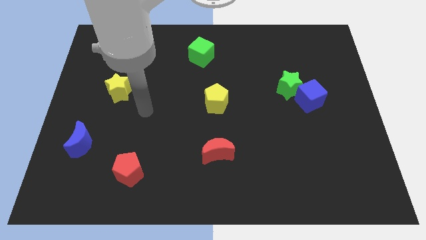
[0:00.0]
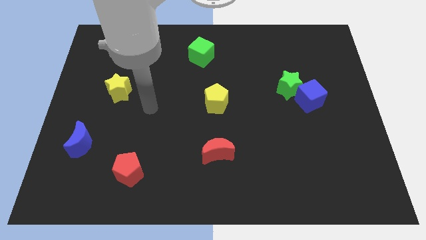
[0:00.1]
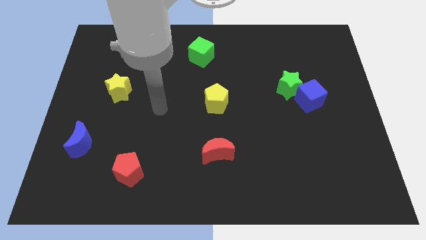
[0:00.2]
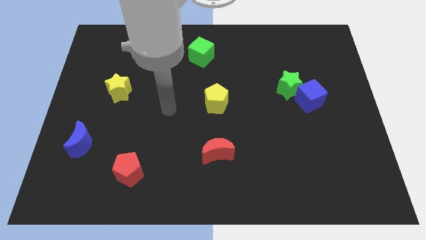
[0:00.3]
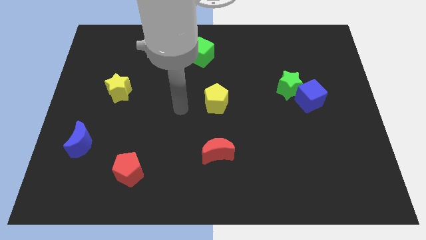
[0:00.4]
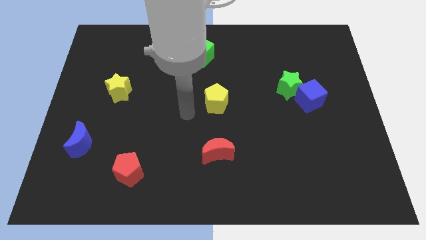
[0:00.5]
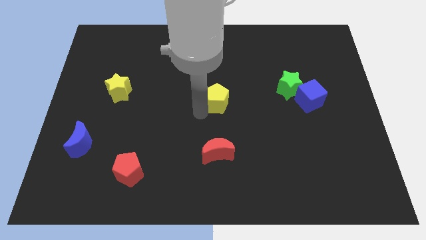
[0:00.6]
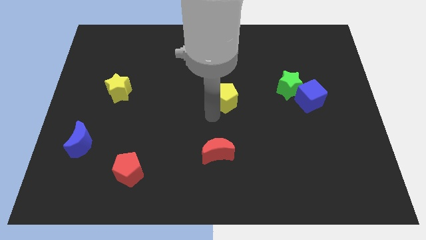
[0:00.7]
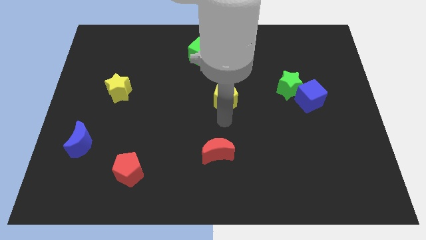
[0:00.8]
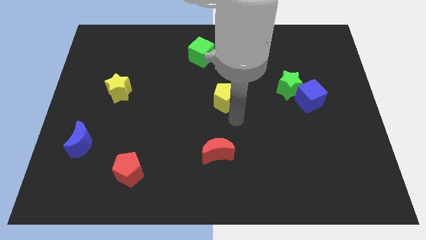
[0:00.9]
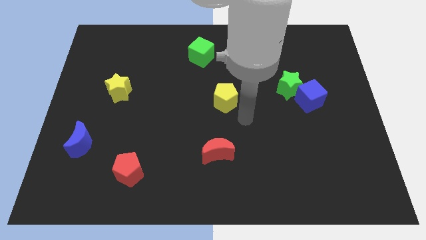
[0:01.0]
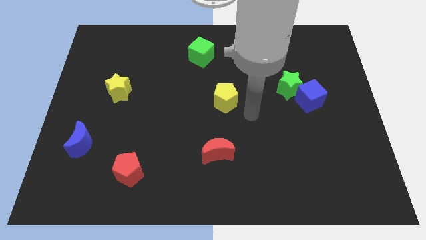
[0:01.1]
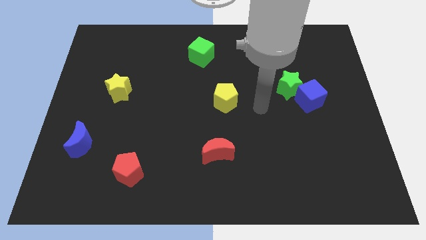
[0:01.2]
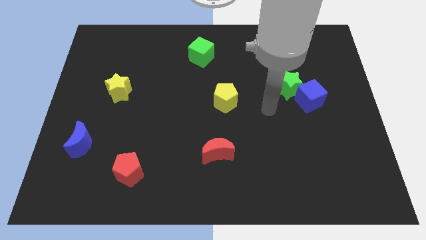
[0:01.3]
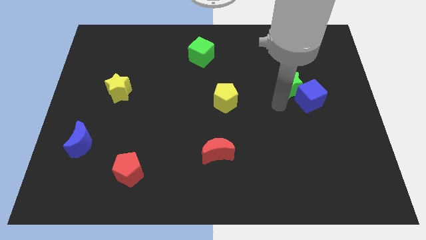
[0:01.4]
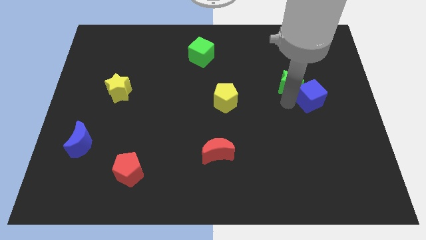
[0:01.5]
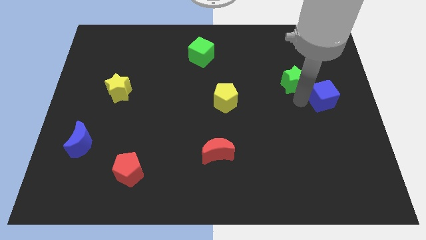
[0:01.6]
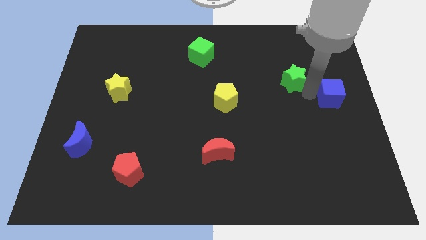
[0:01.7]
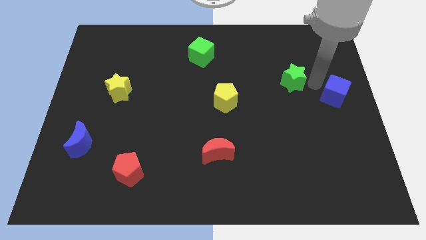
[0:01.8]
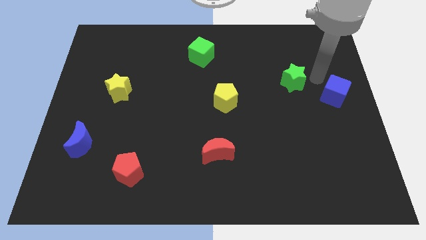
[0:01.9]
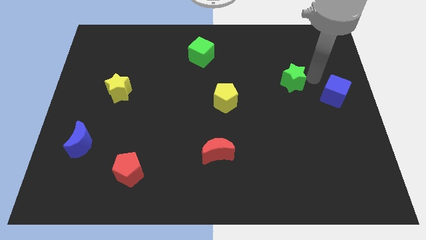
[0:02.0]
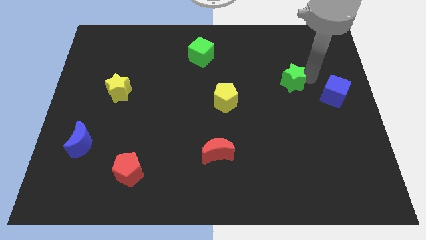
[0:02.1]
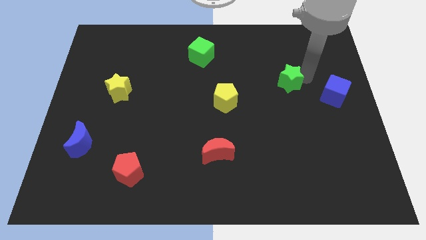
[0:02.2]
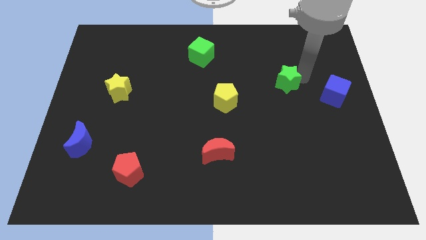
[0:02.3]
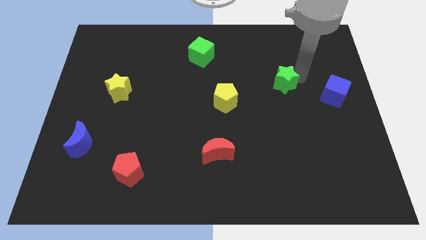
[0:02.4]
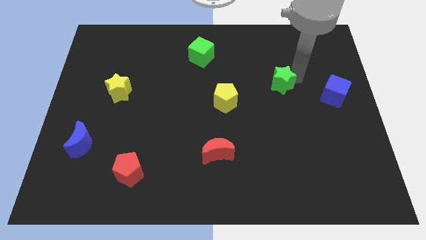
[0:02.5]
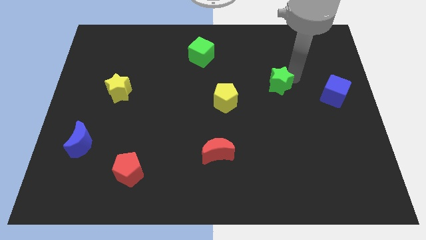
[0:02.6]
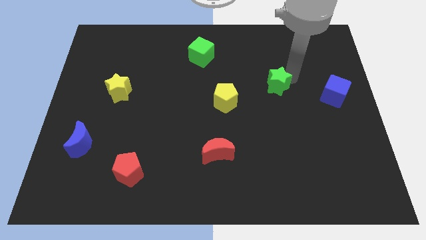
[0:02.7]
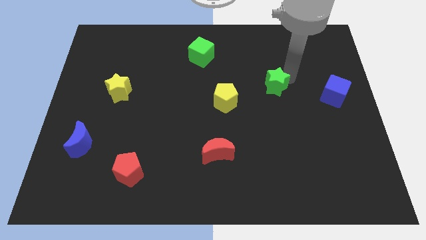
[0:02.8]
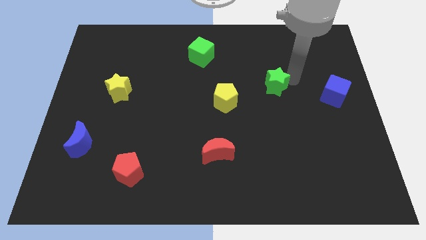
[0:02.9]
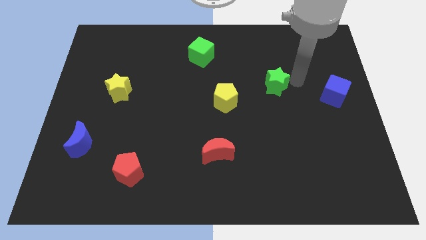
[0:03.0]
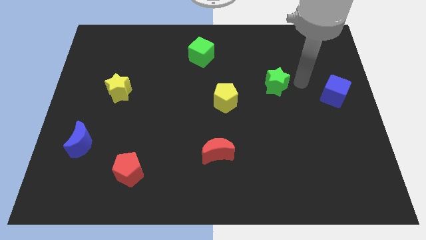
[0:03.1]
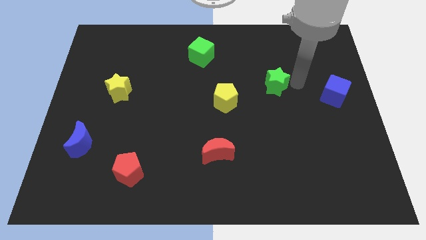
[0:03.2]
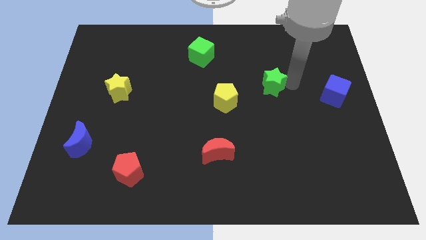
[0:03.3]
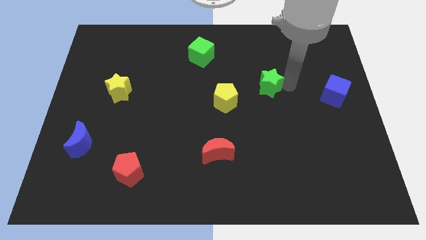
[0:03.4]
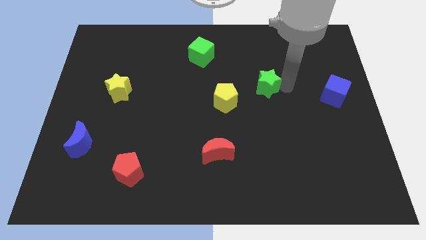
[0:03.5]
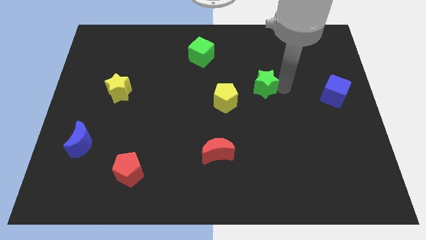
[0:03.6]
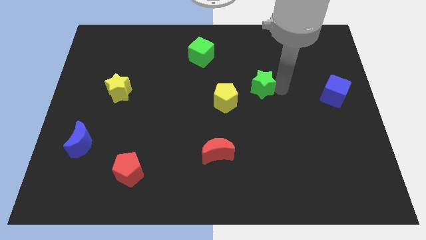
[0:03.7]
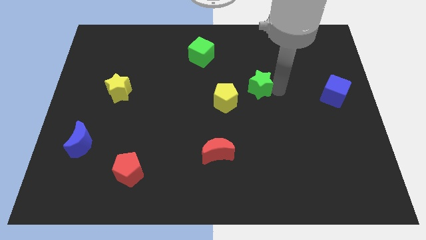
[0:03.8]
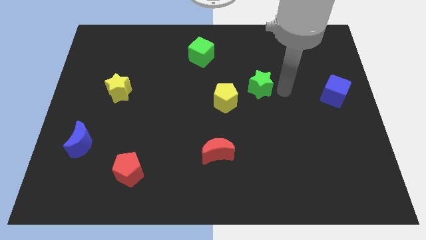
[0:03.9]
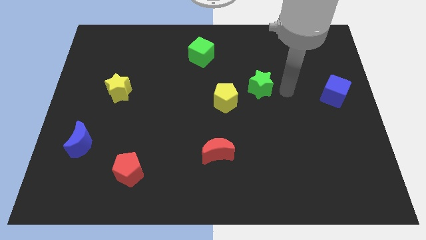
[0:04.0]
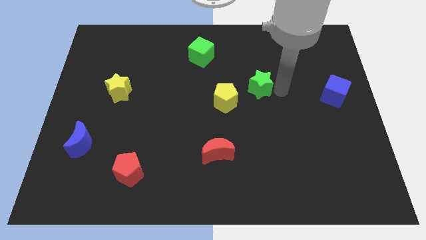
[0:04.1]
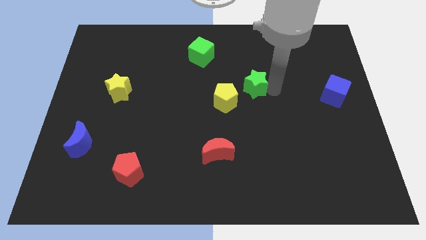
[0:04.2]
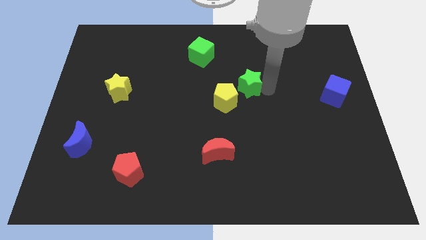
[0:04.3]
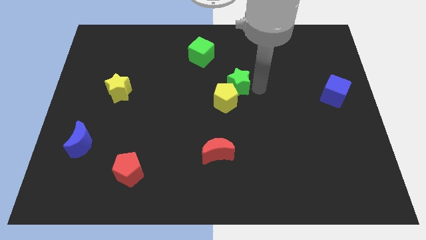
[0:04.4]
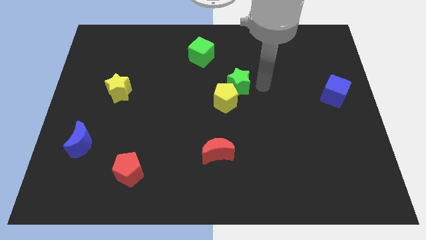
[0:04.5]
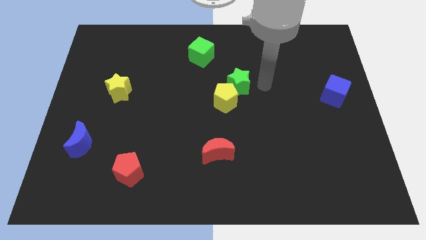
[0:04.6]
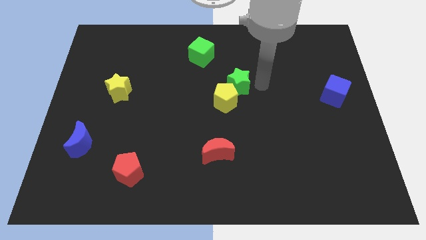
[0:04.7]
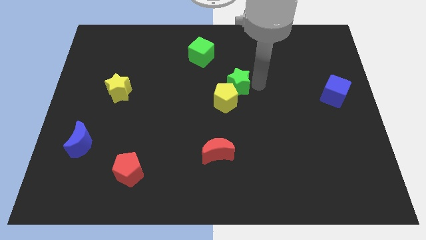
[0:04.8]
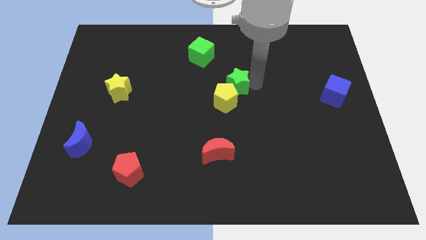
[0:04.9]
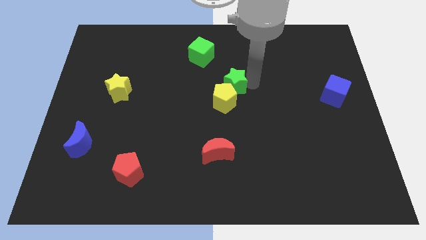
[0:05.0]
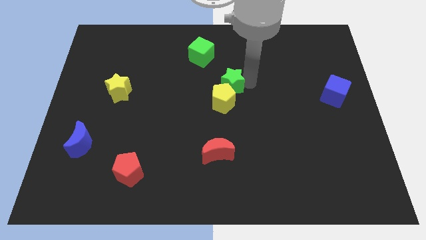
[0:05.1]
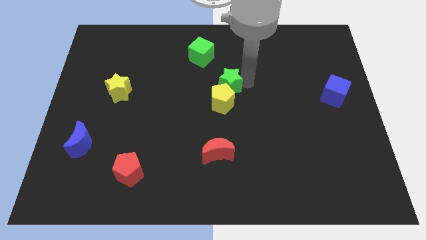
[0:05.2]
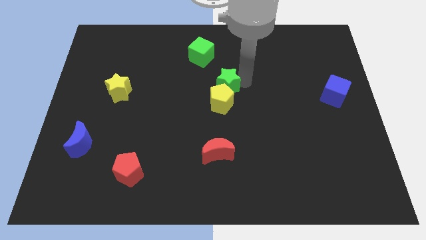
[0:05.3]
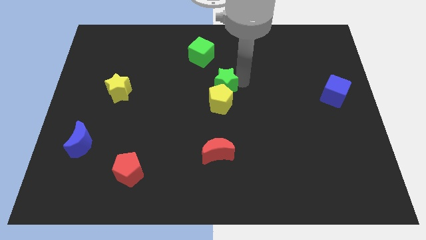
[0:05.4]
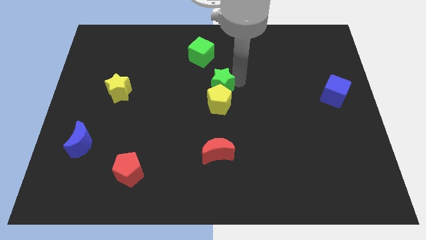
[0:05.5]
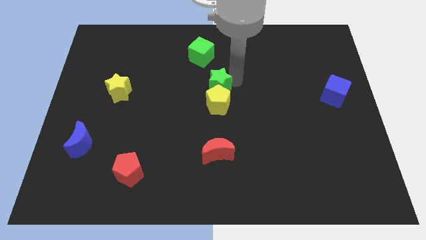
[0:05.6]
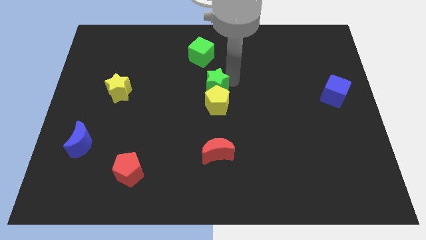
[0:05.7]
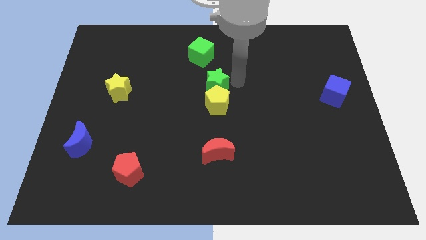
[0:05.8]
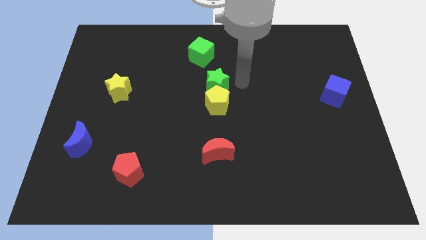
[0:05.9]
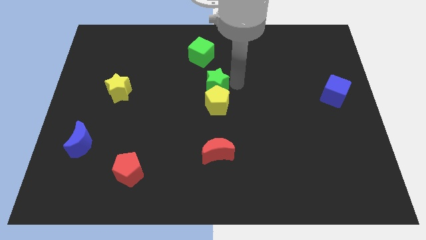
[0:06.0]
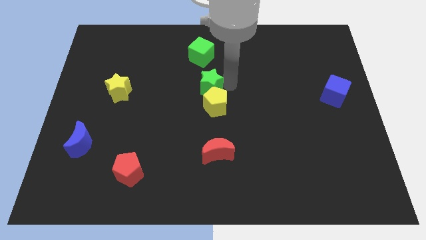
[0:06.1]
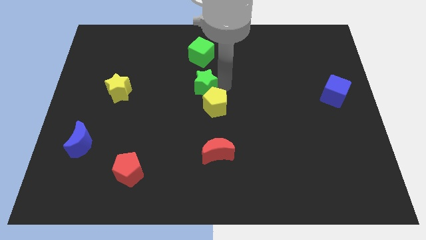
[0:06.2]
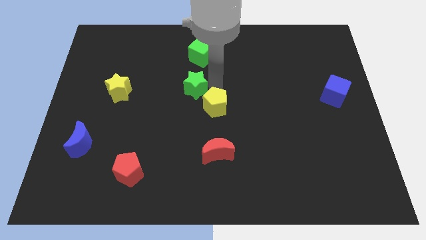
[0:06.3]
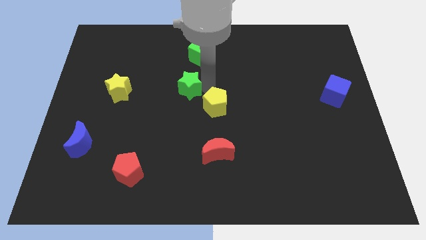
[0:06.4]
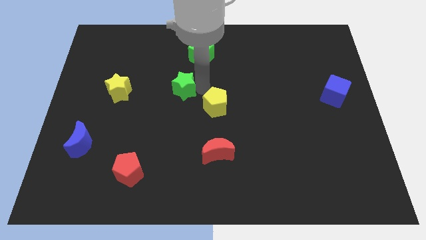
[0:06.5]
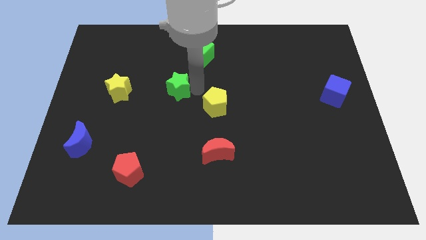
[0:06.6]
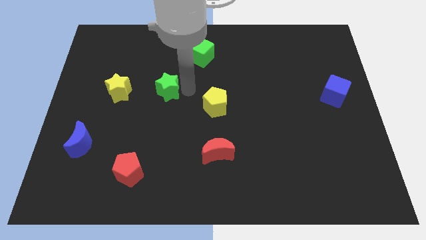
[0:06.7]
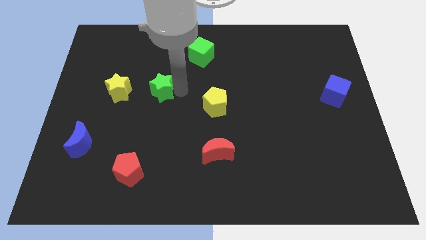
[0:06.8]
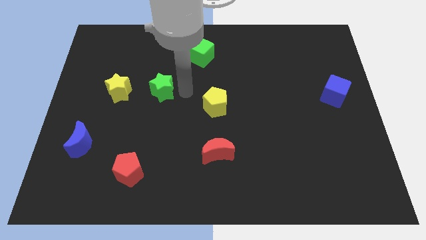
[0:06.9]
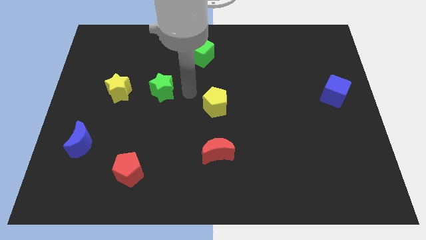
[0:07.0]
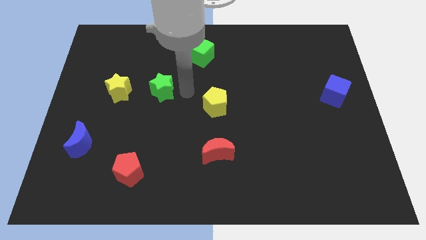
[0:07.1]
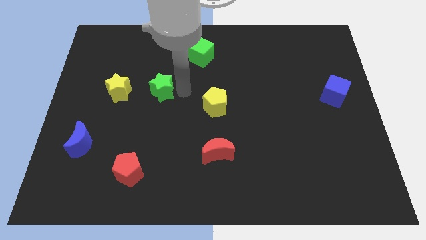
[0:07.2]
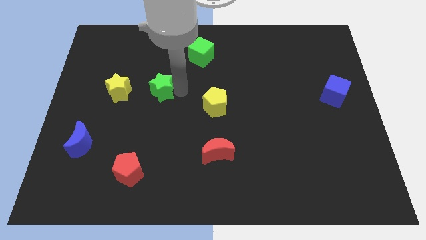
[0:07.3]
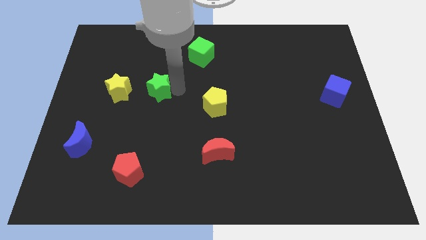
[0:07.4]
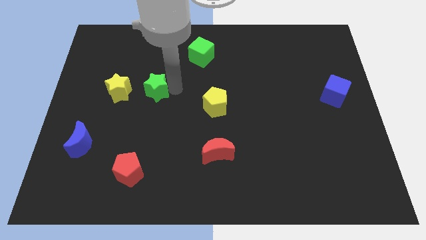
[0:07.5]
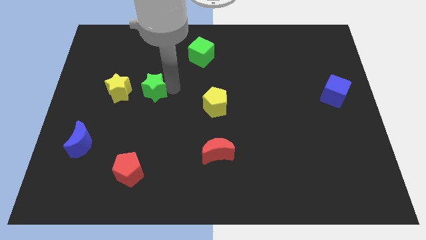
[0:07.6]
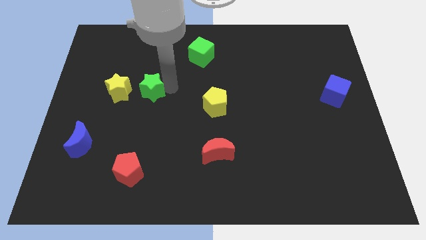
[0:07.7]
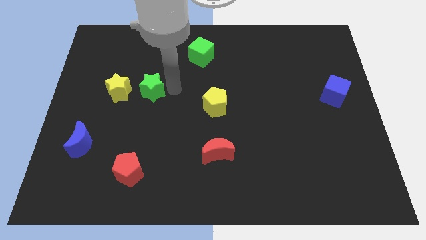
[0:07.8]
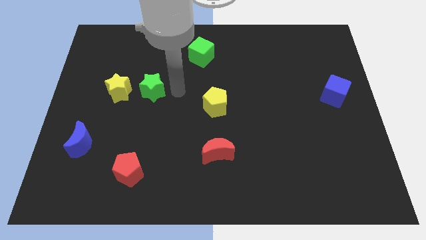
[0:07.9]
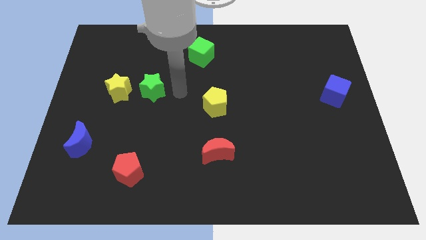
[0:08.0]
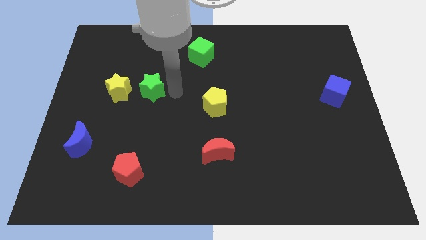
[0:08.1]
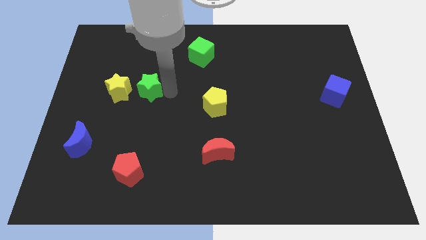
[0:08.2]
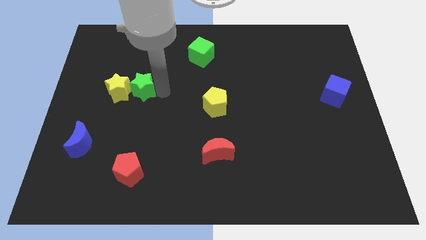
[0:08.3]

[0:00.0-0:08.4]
push the green star next to the yellow star
